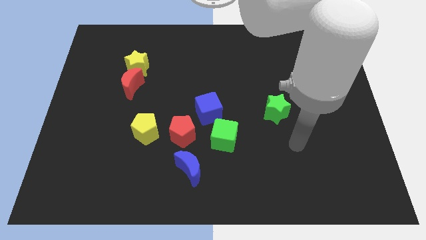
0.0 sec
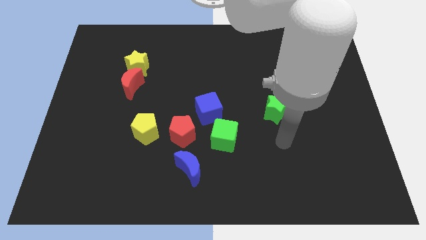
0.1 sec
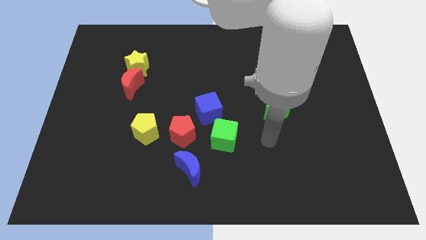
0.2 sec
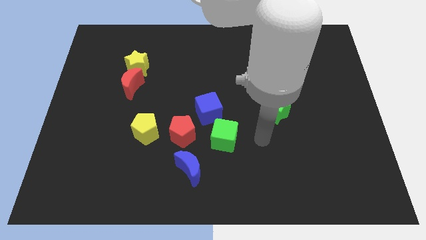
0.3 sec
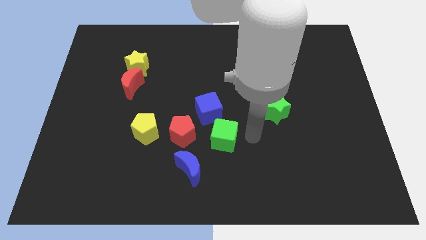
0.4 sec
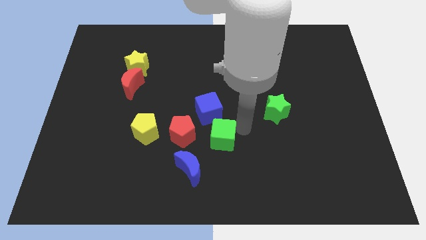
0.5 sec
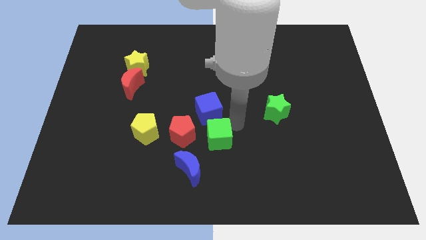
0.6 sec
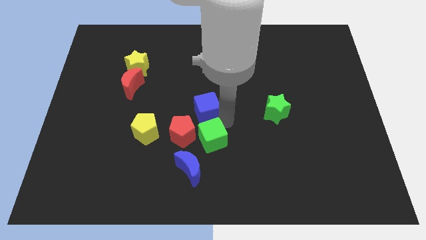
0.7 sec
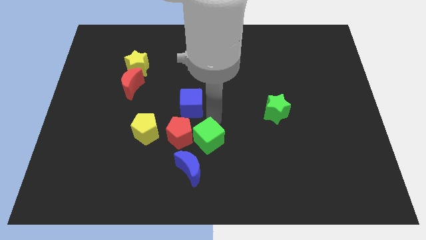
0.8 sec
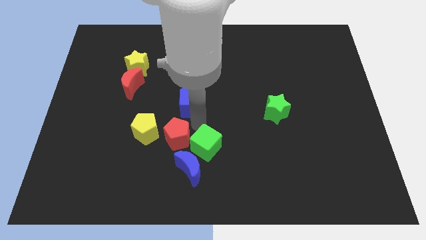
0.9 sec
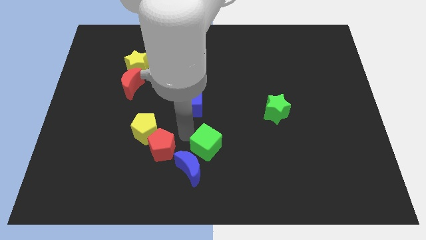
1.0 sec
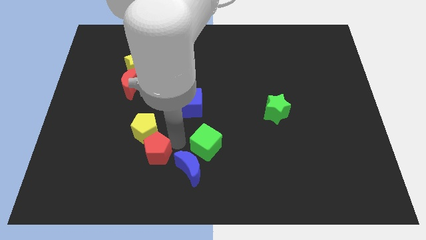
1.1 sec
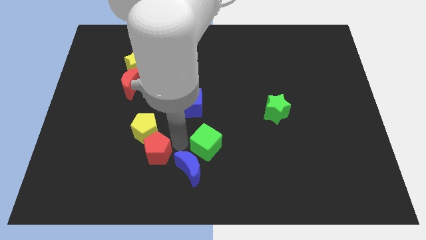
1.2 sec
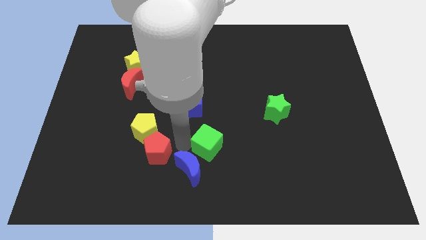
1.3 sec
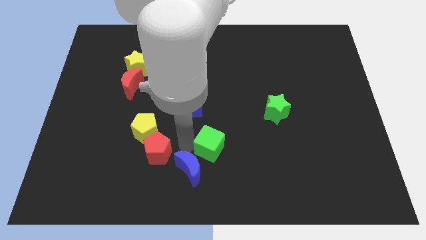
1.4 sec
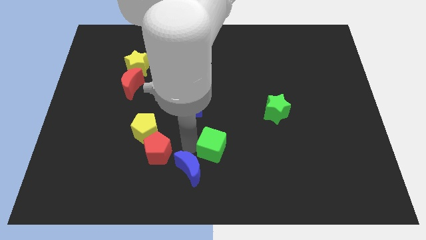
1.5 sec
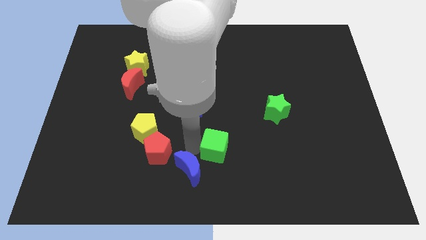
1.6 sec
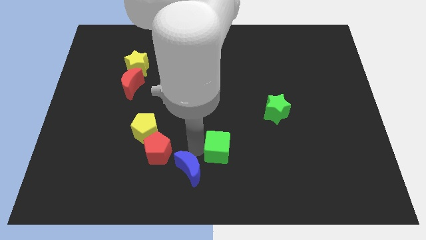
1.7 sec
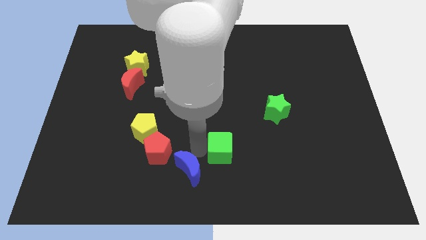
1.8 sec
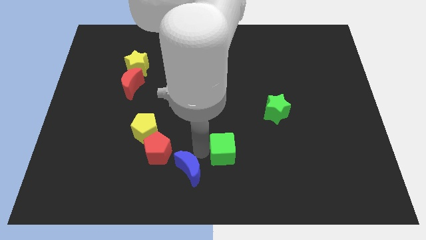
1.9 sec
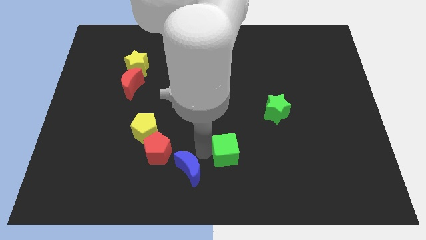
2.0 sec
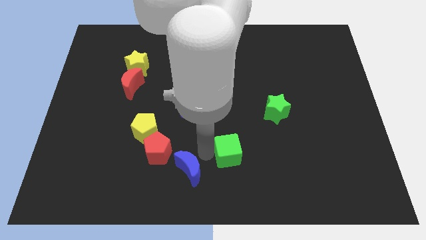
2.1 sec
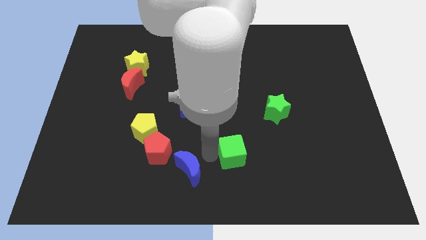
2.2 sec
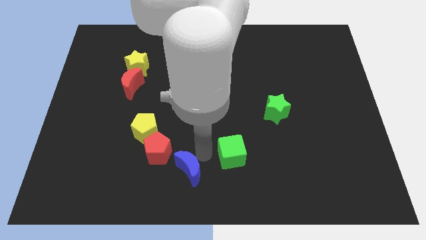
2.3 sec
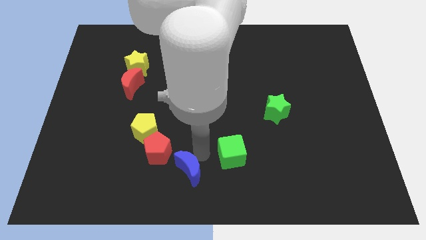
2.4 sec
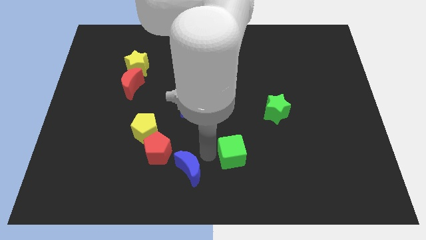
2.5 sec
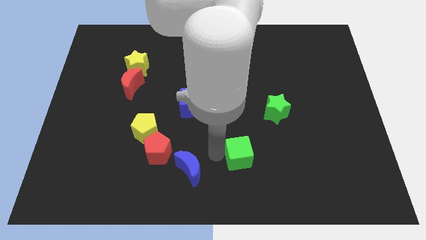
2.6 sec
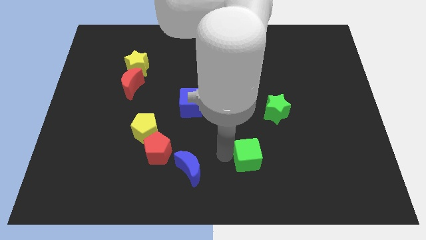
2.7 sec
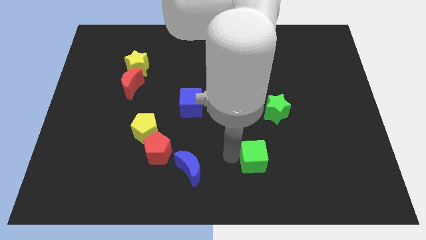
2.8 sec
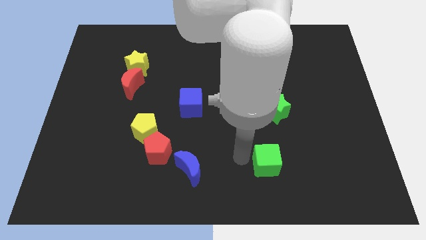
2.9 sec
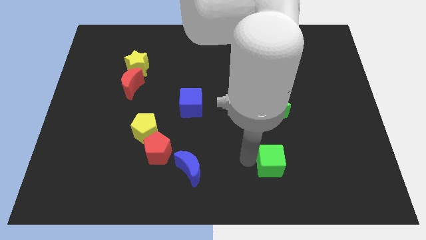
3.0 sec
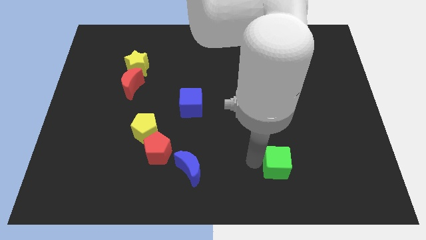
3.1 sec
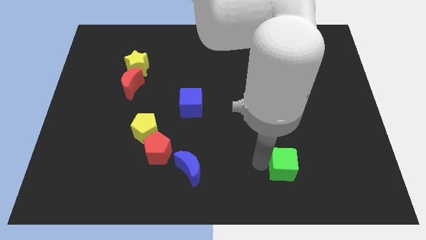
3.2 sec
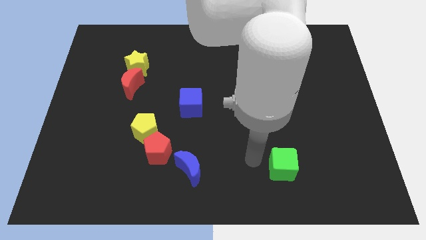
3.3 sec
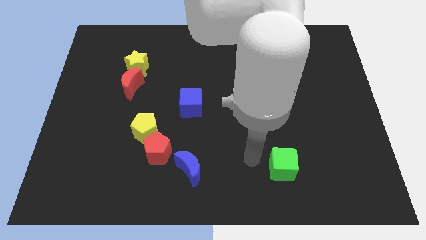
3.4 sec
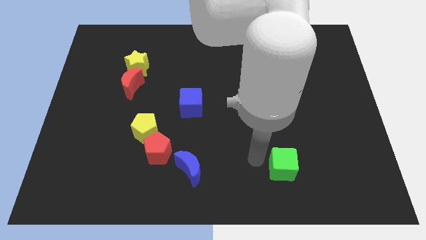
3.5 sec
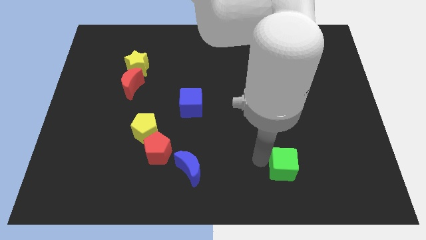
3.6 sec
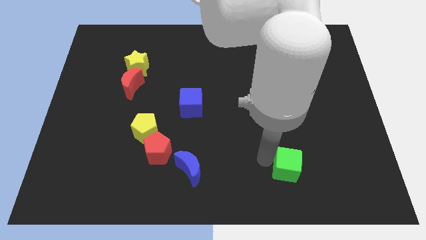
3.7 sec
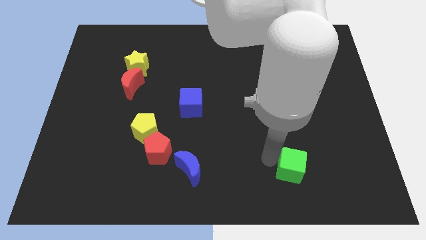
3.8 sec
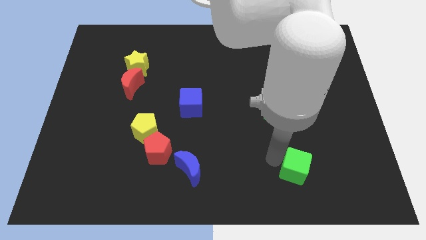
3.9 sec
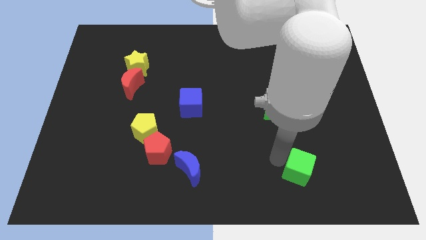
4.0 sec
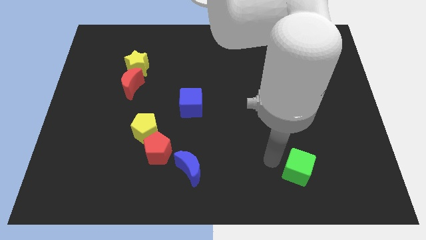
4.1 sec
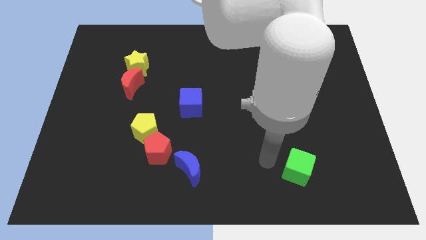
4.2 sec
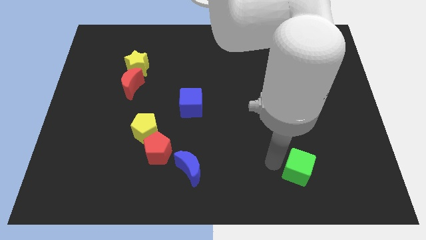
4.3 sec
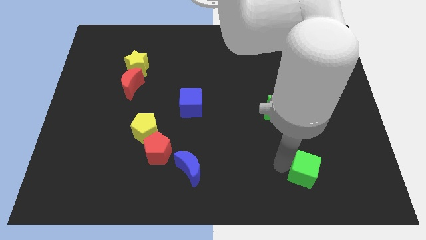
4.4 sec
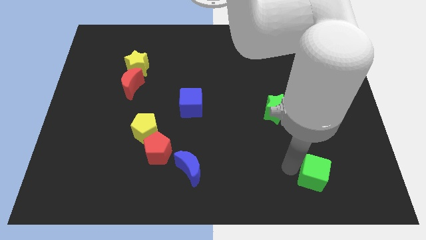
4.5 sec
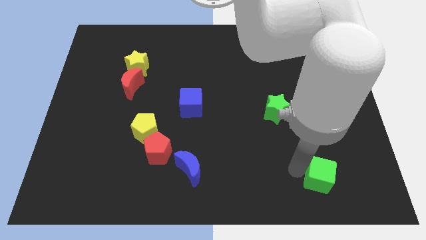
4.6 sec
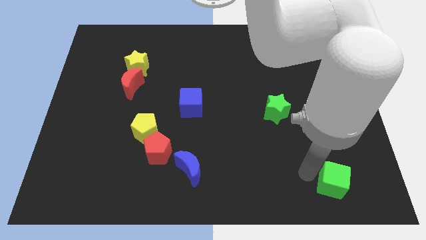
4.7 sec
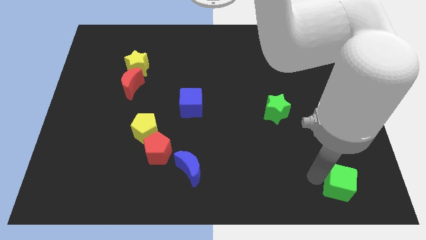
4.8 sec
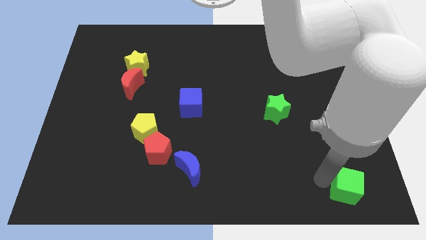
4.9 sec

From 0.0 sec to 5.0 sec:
push the green cube to the lower right corner

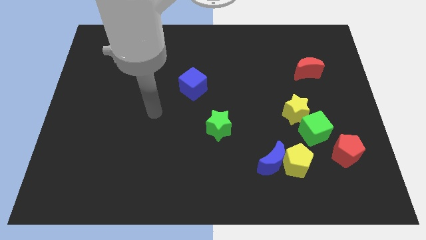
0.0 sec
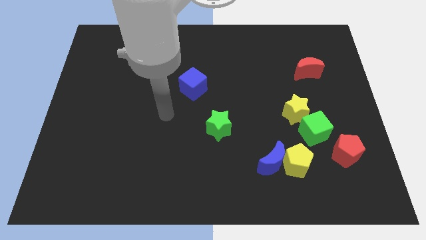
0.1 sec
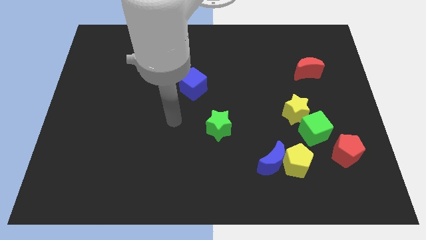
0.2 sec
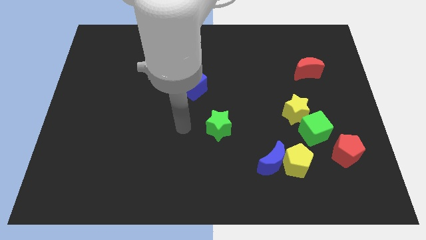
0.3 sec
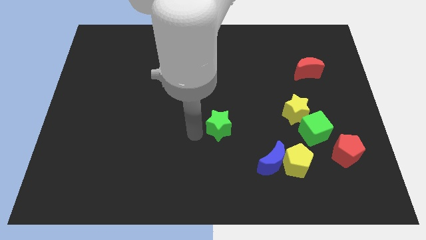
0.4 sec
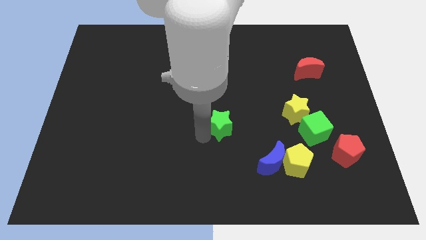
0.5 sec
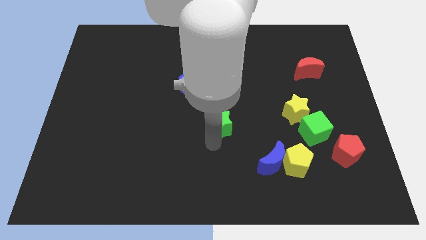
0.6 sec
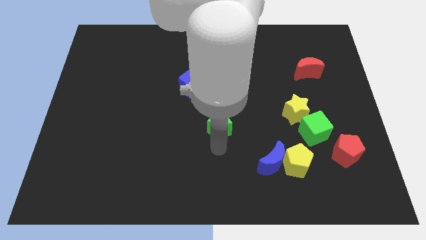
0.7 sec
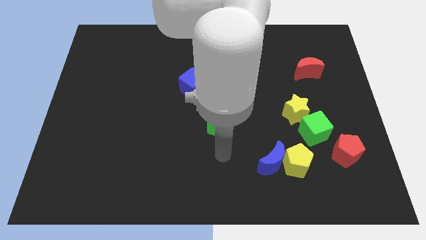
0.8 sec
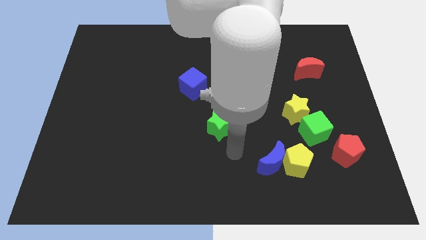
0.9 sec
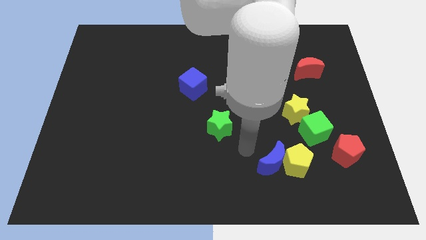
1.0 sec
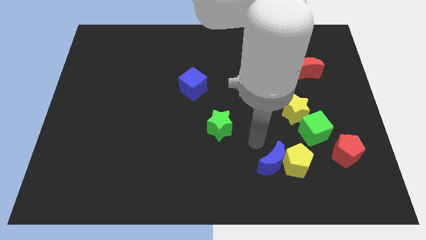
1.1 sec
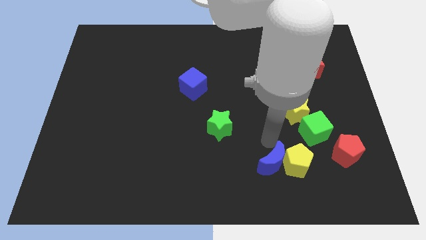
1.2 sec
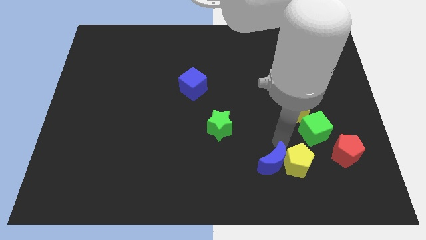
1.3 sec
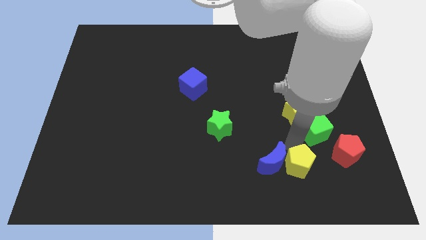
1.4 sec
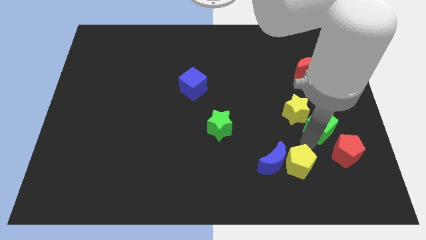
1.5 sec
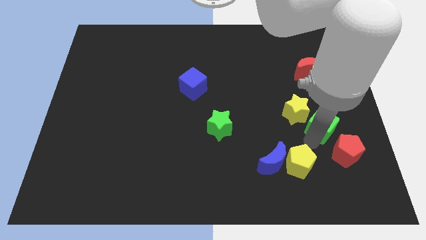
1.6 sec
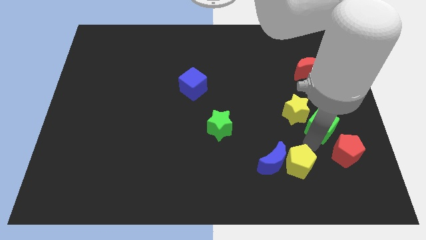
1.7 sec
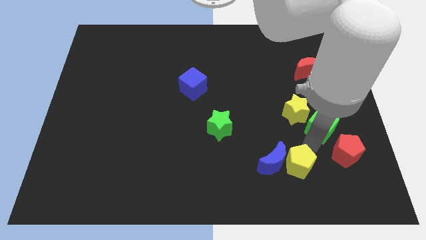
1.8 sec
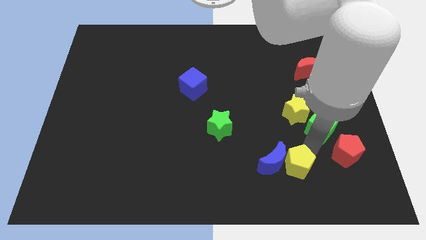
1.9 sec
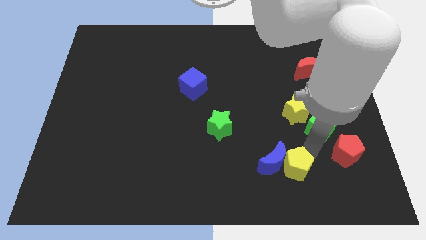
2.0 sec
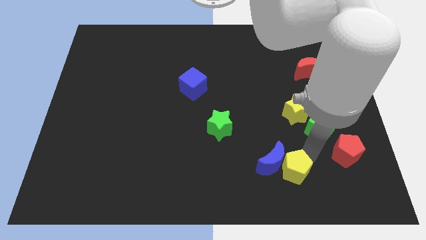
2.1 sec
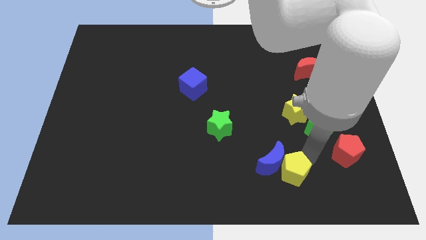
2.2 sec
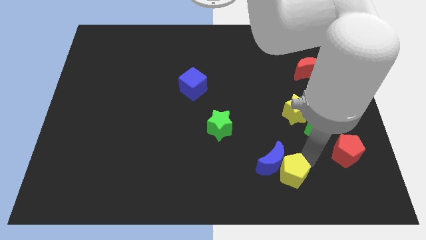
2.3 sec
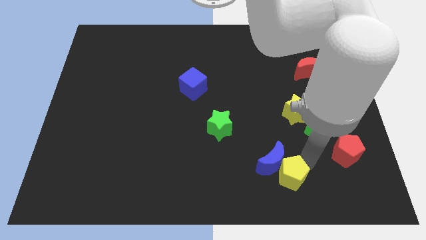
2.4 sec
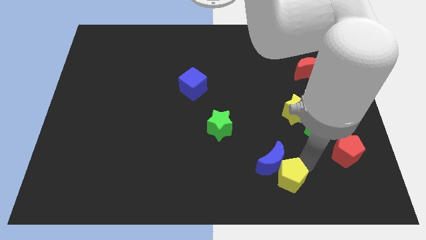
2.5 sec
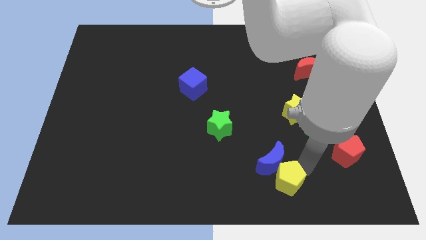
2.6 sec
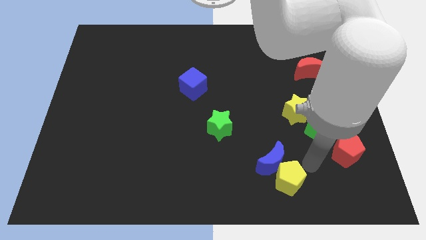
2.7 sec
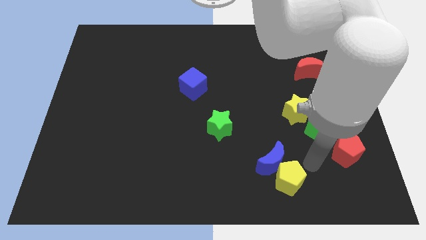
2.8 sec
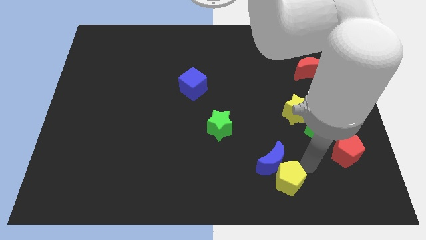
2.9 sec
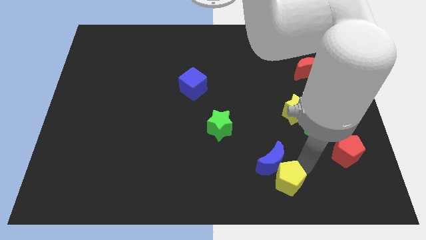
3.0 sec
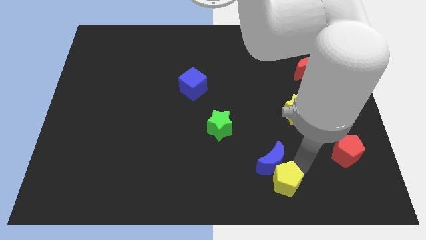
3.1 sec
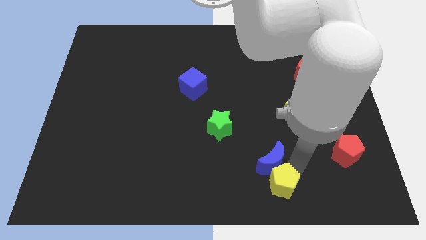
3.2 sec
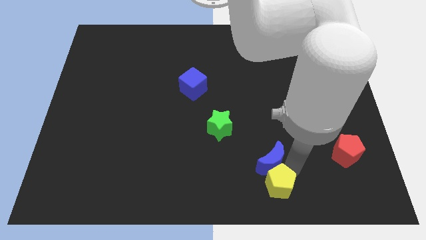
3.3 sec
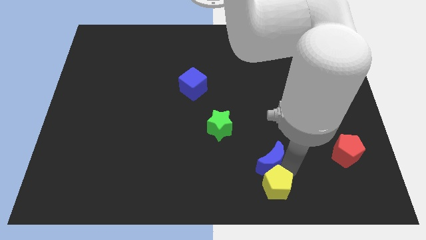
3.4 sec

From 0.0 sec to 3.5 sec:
put the yellow pentagon to the bottom
